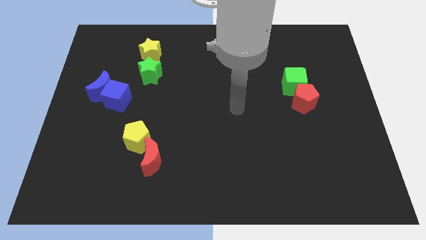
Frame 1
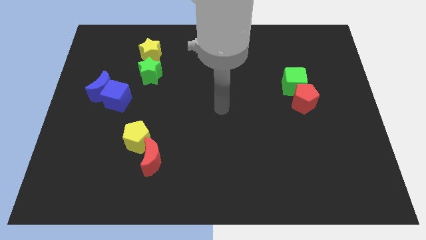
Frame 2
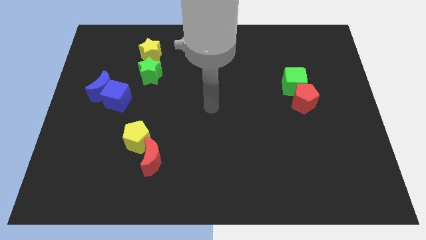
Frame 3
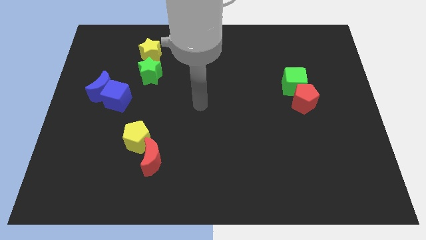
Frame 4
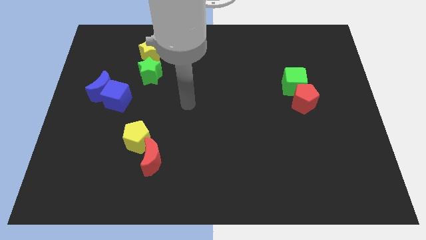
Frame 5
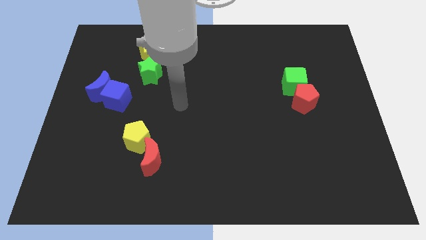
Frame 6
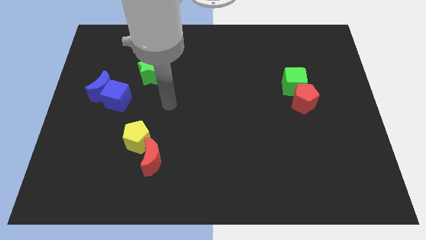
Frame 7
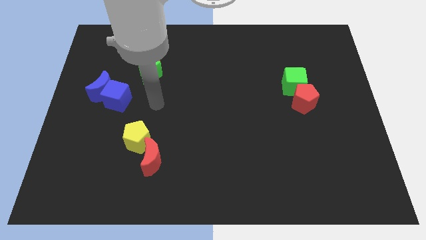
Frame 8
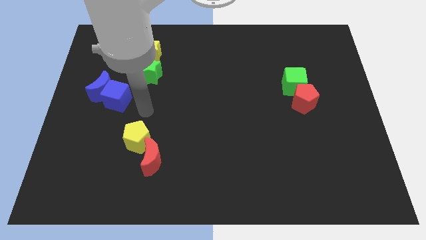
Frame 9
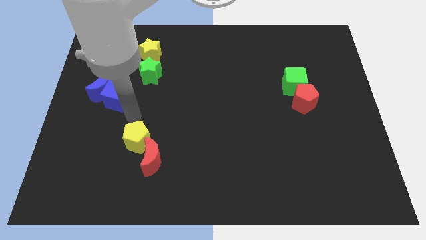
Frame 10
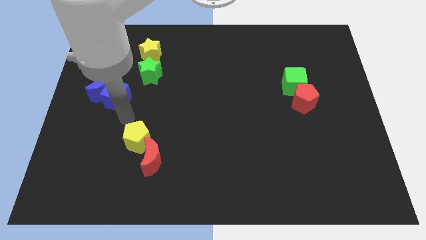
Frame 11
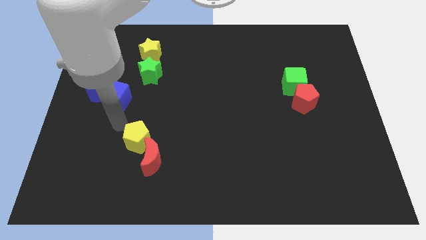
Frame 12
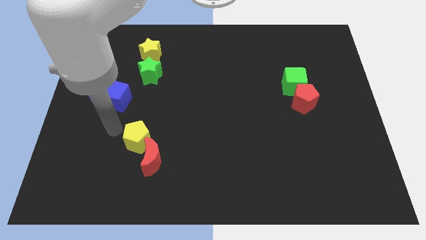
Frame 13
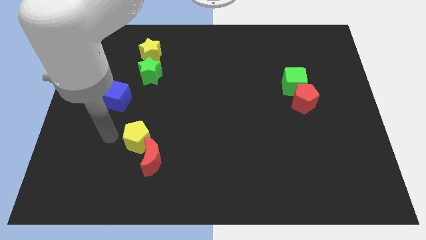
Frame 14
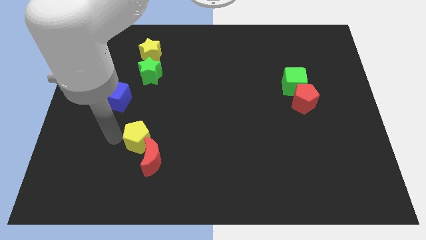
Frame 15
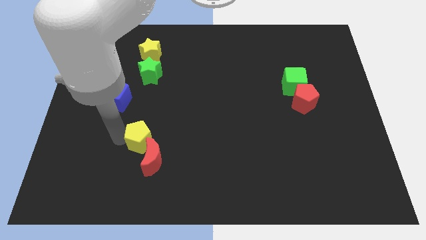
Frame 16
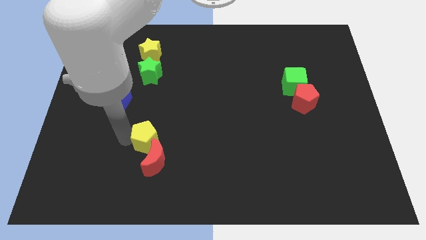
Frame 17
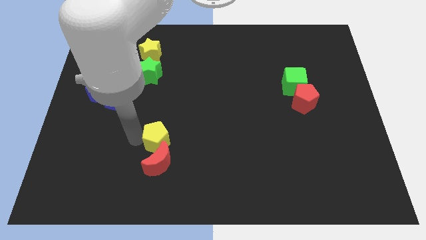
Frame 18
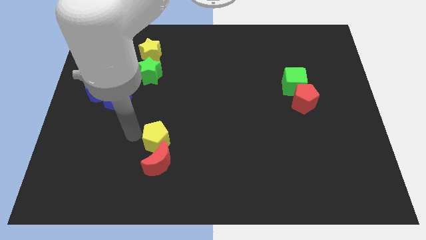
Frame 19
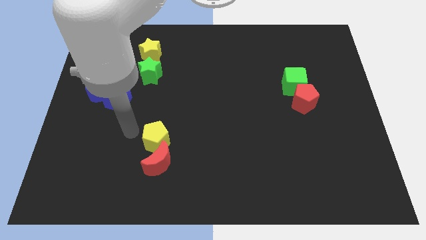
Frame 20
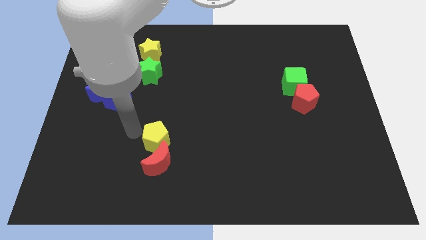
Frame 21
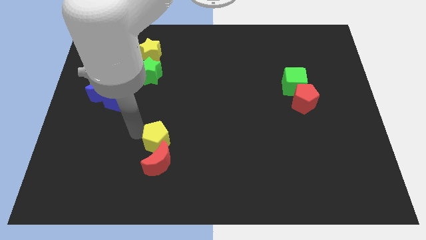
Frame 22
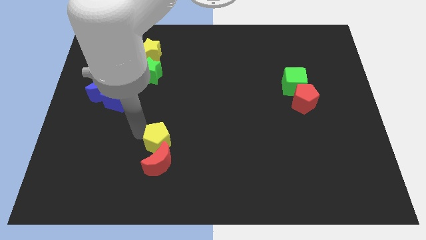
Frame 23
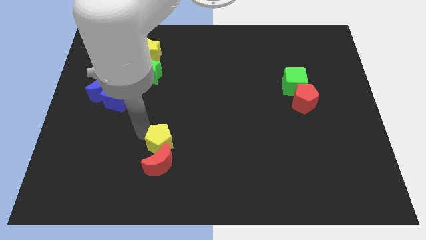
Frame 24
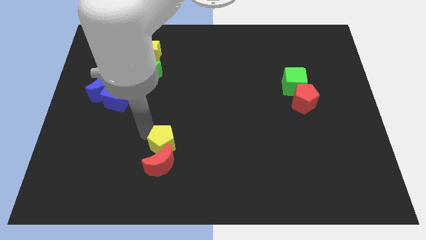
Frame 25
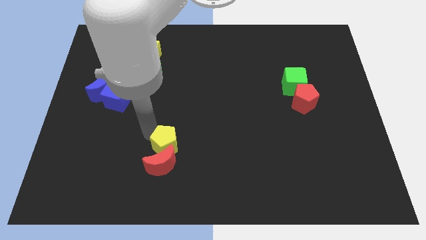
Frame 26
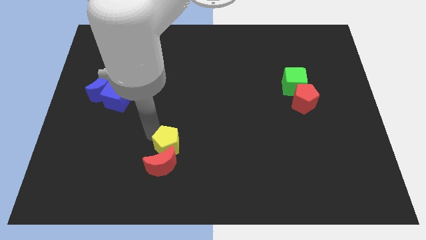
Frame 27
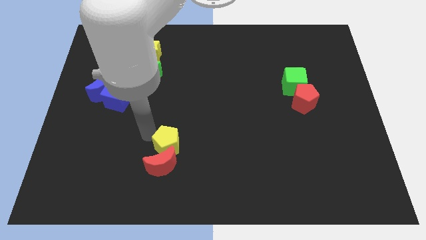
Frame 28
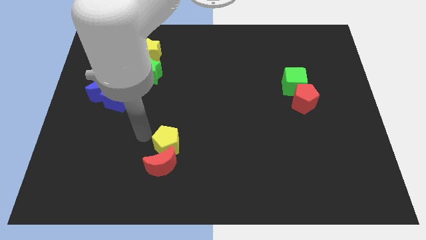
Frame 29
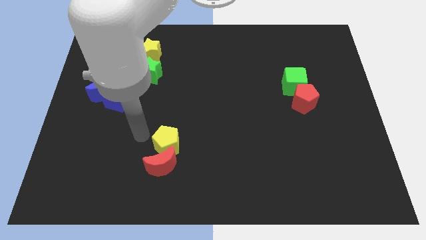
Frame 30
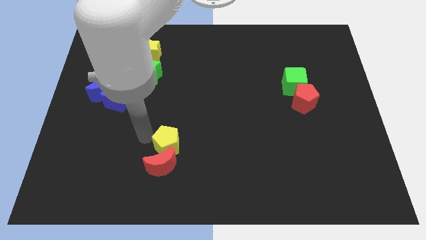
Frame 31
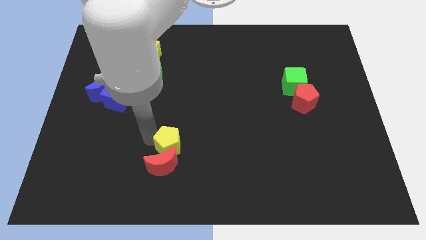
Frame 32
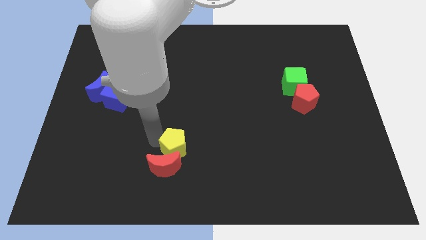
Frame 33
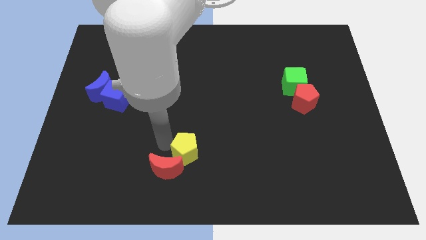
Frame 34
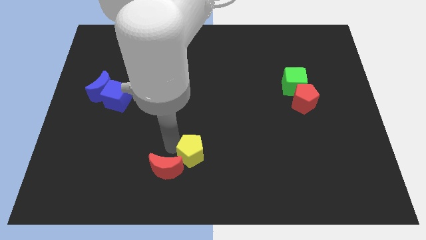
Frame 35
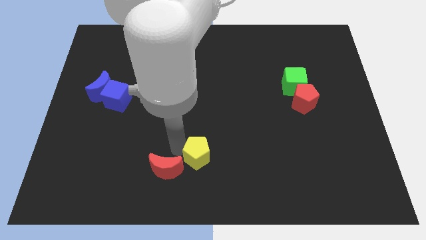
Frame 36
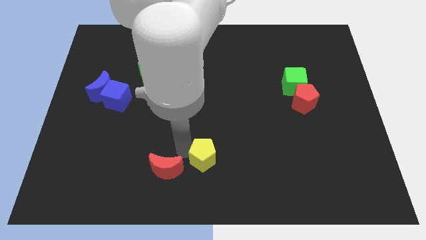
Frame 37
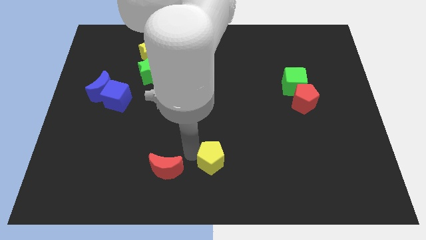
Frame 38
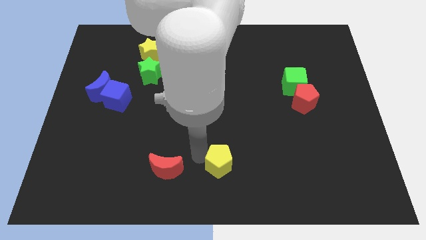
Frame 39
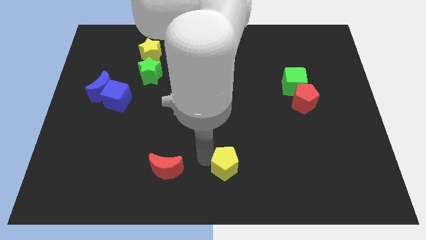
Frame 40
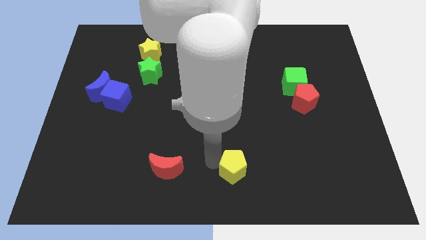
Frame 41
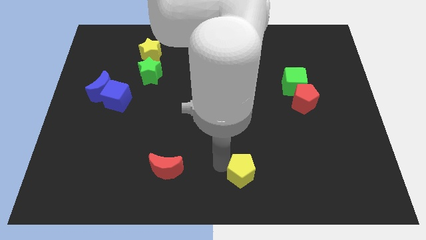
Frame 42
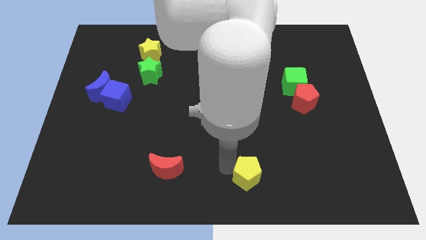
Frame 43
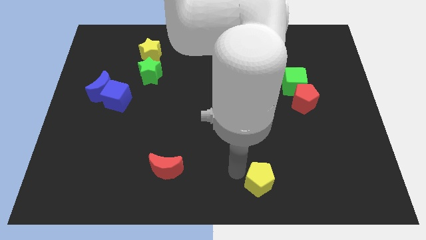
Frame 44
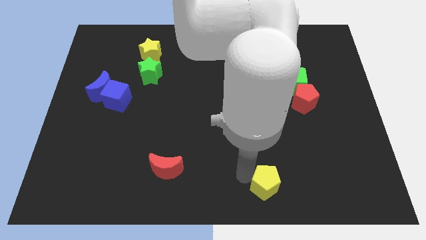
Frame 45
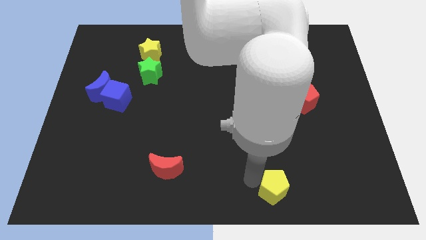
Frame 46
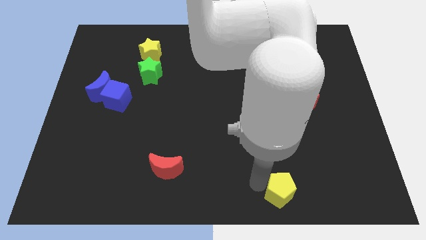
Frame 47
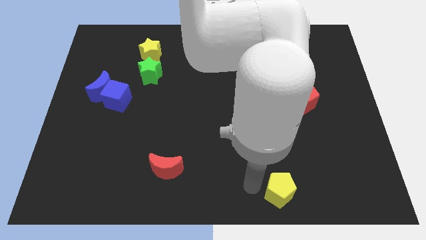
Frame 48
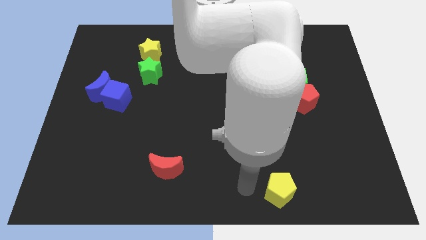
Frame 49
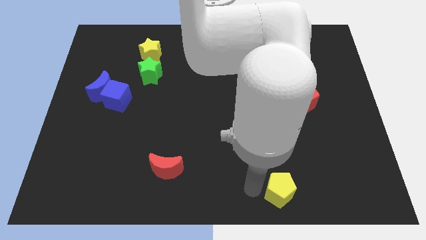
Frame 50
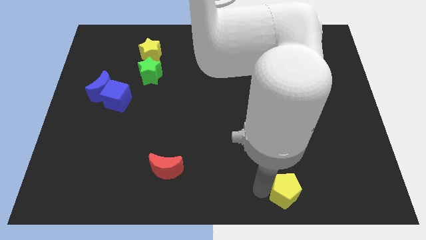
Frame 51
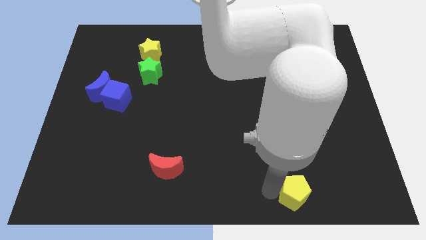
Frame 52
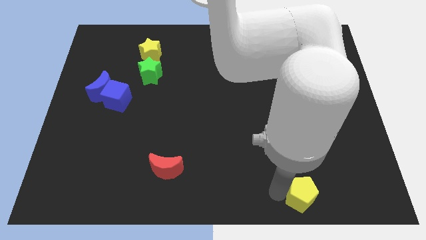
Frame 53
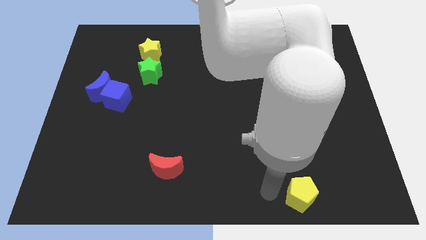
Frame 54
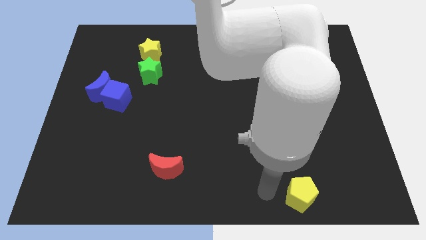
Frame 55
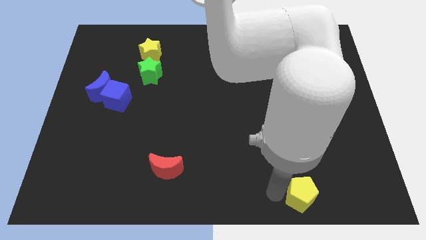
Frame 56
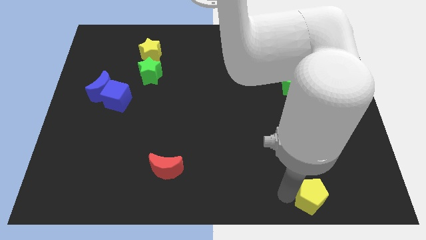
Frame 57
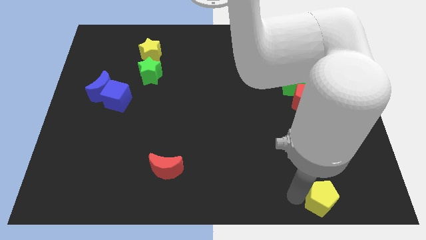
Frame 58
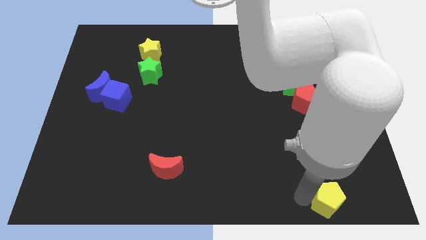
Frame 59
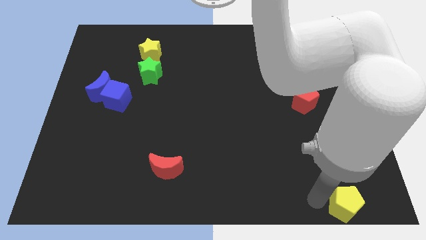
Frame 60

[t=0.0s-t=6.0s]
slide the yellow pentagon to the bottom right corner
